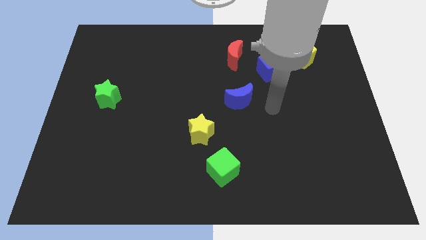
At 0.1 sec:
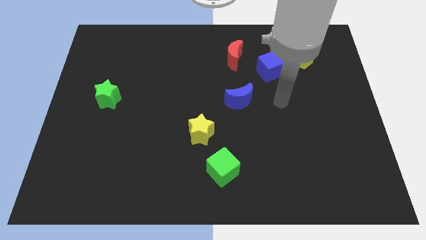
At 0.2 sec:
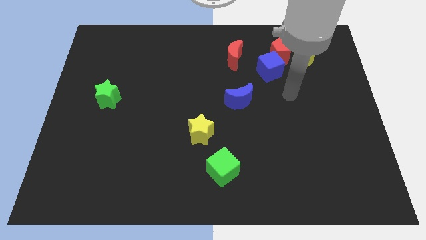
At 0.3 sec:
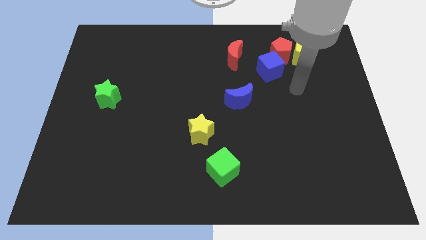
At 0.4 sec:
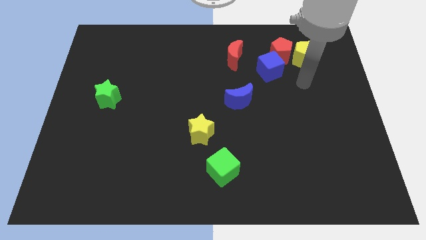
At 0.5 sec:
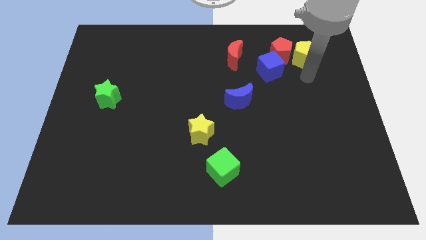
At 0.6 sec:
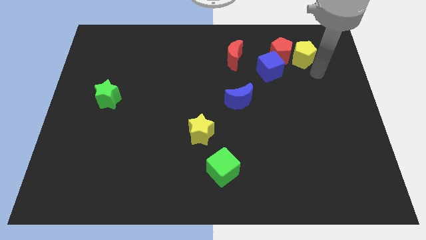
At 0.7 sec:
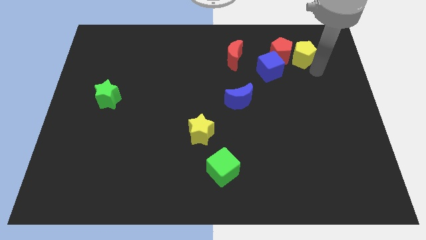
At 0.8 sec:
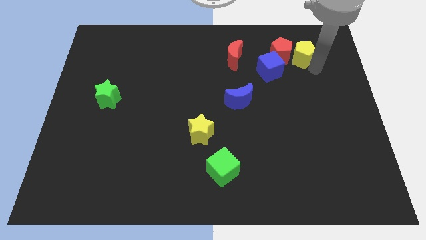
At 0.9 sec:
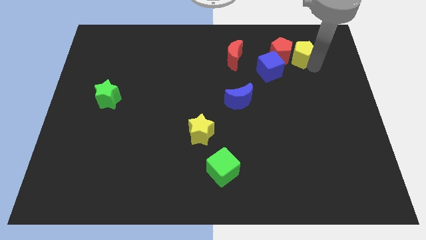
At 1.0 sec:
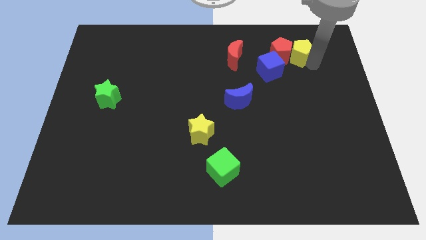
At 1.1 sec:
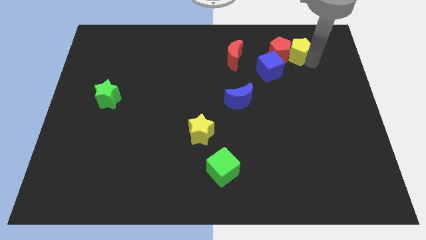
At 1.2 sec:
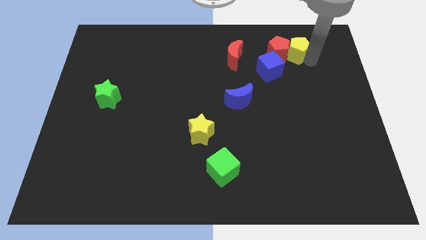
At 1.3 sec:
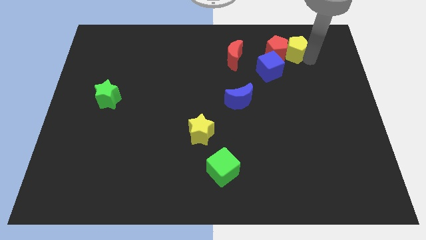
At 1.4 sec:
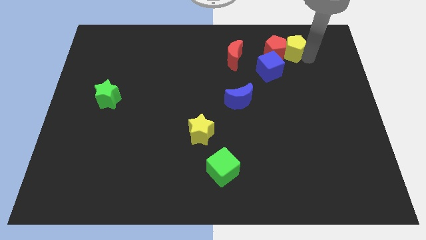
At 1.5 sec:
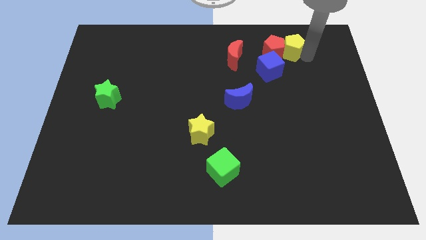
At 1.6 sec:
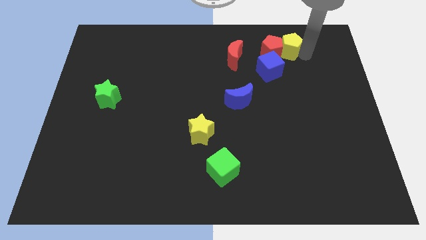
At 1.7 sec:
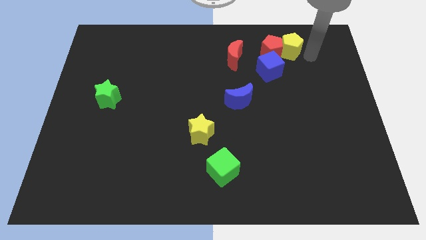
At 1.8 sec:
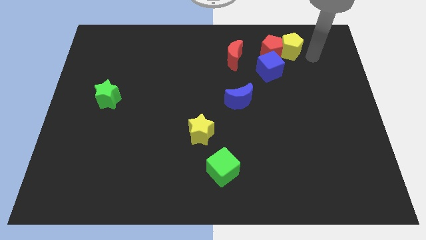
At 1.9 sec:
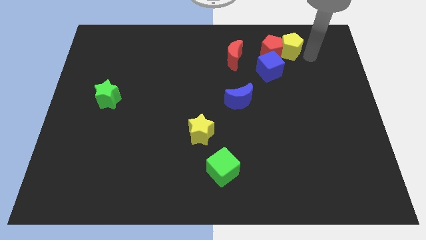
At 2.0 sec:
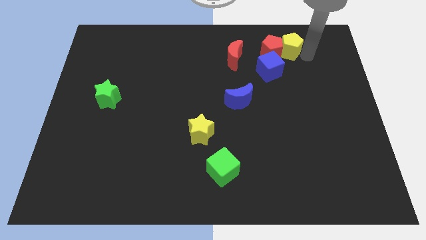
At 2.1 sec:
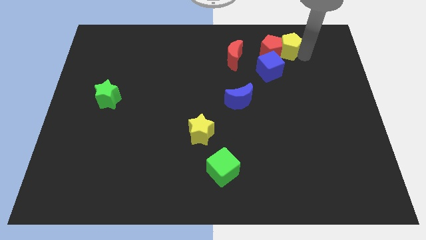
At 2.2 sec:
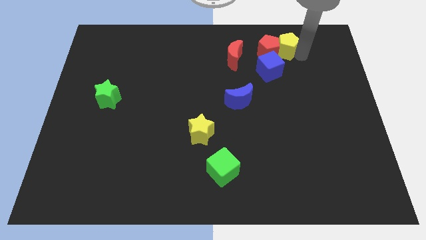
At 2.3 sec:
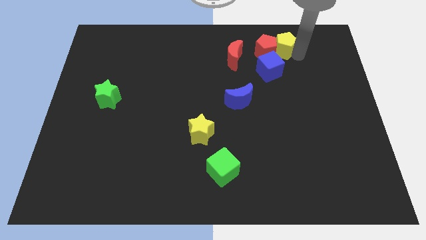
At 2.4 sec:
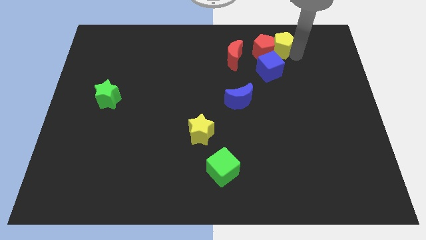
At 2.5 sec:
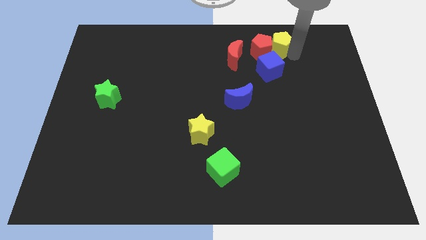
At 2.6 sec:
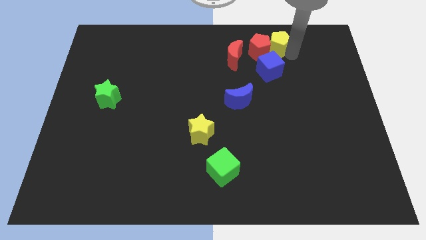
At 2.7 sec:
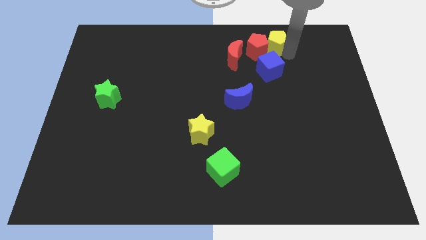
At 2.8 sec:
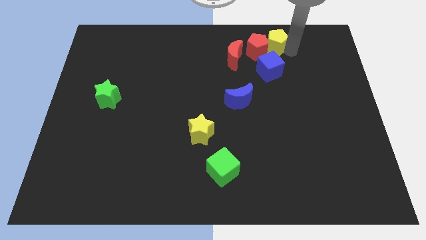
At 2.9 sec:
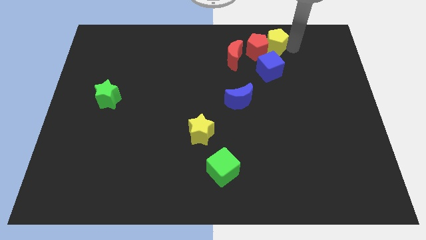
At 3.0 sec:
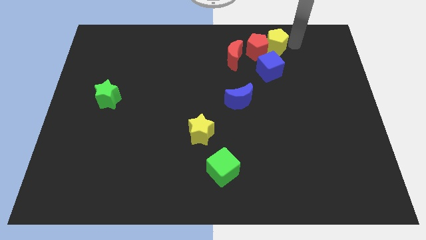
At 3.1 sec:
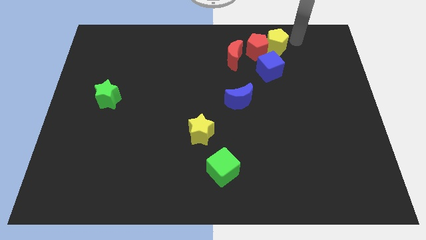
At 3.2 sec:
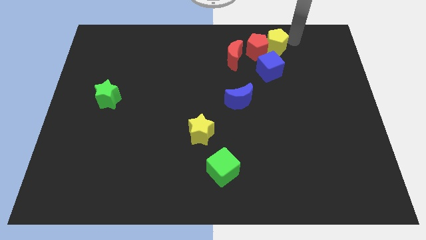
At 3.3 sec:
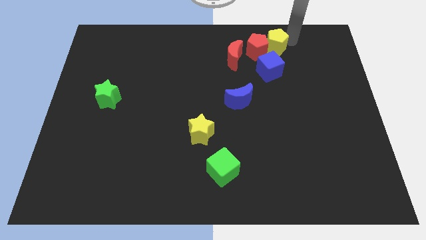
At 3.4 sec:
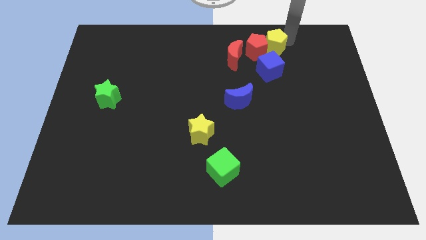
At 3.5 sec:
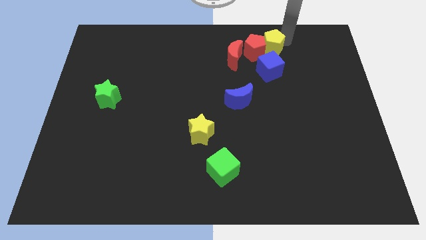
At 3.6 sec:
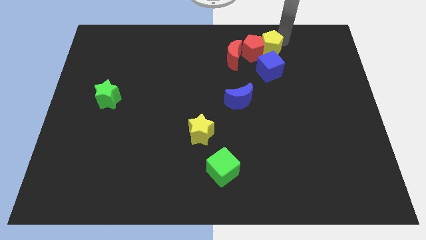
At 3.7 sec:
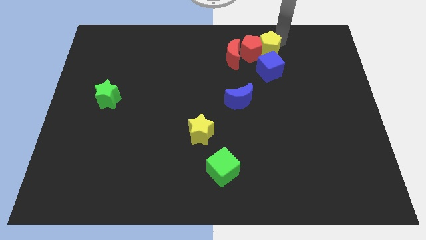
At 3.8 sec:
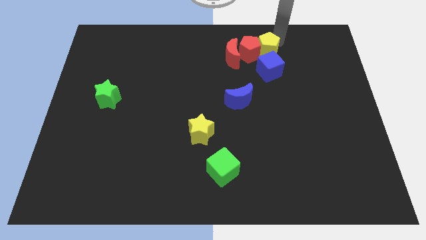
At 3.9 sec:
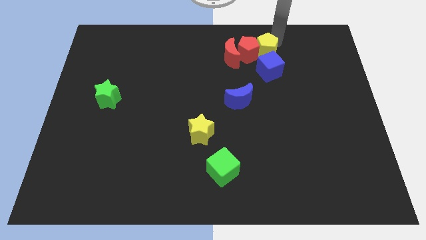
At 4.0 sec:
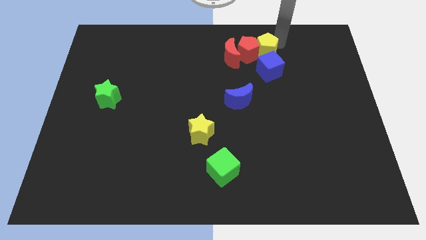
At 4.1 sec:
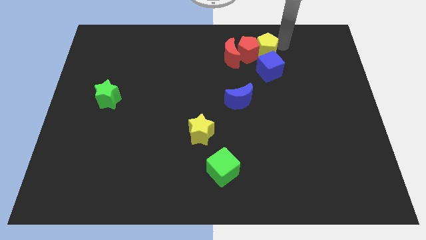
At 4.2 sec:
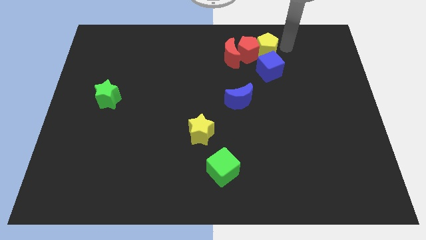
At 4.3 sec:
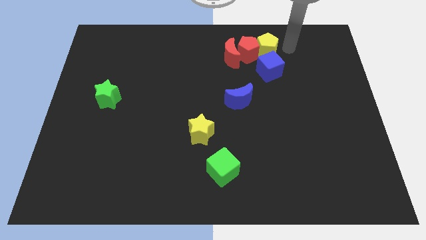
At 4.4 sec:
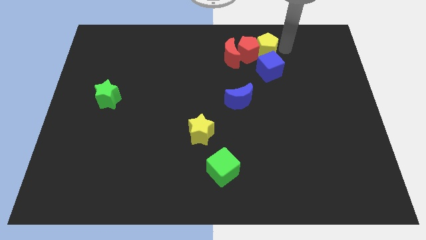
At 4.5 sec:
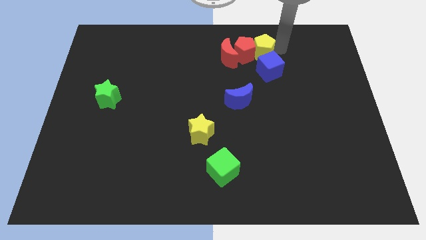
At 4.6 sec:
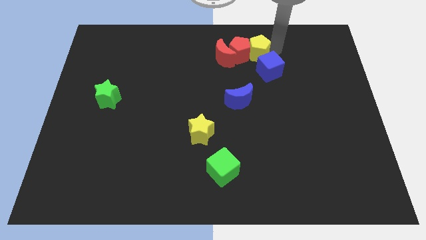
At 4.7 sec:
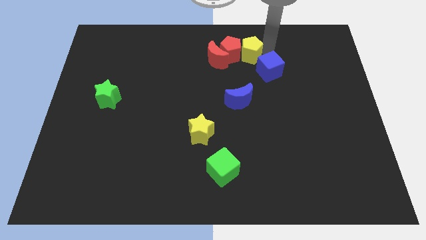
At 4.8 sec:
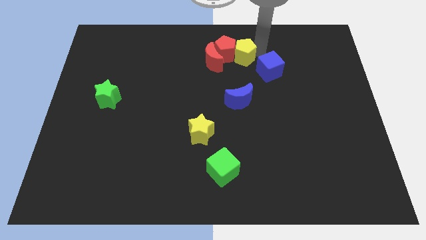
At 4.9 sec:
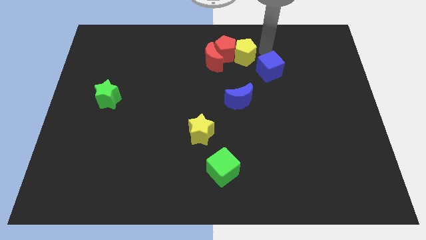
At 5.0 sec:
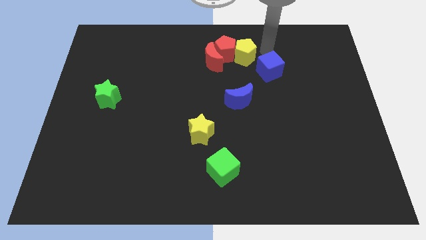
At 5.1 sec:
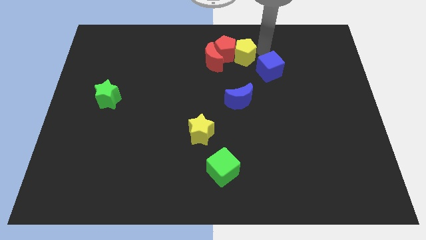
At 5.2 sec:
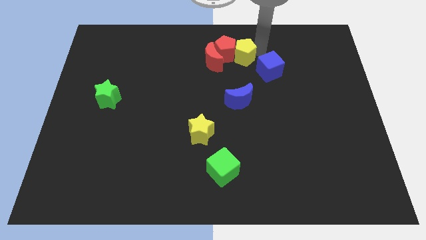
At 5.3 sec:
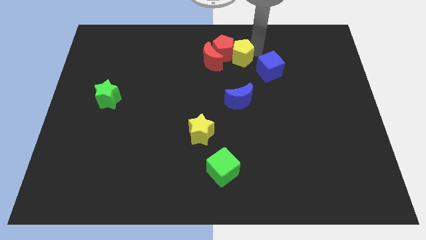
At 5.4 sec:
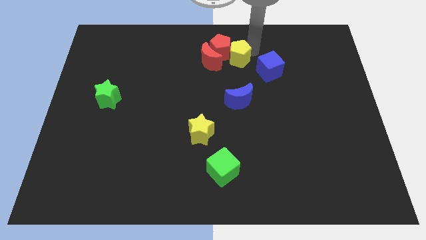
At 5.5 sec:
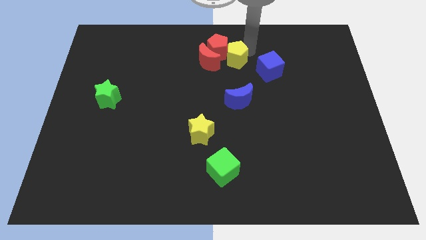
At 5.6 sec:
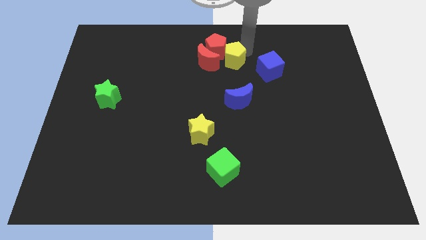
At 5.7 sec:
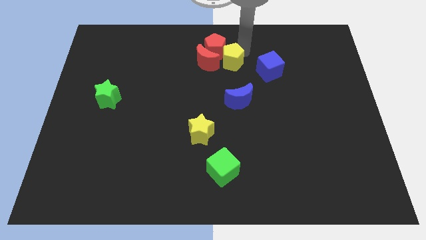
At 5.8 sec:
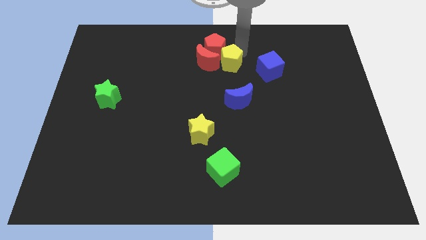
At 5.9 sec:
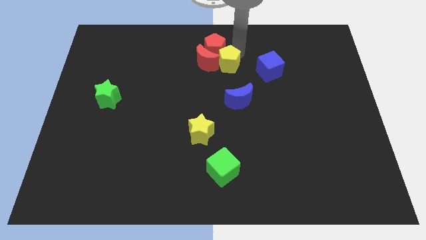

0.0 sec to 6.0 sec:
slide the yellow pentagon close to the red moon
